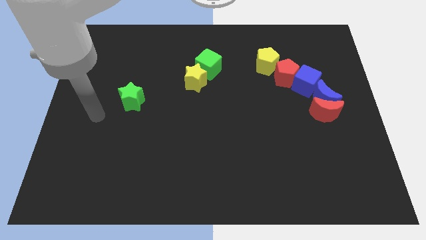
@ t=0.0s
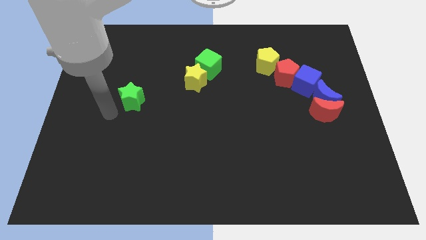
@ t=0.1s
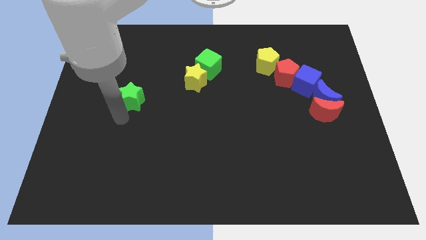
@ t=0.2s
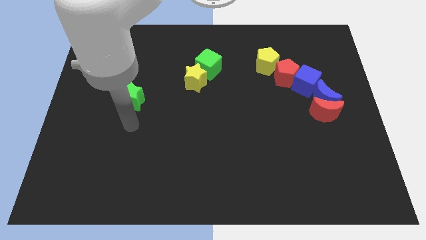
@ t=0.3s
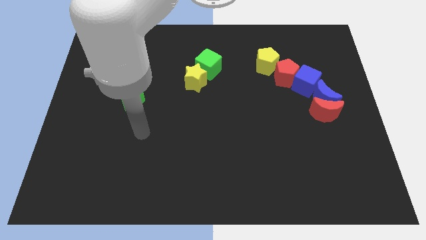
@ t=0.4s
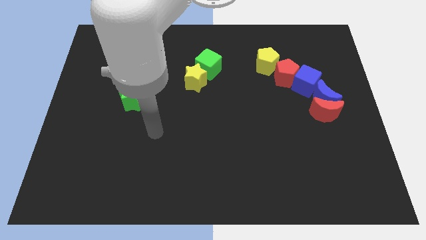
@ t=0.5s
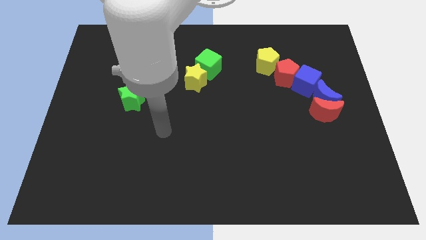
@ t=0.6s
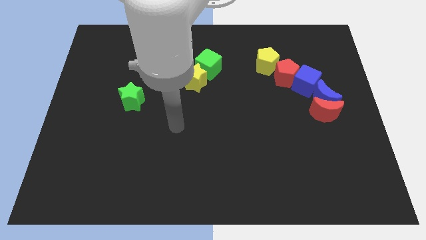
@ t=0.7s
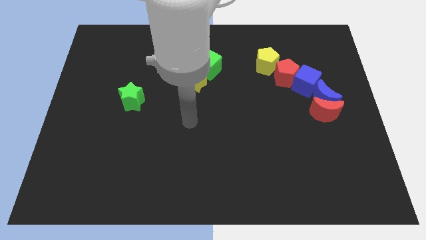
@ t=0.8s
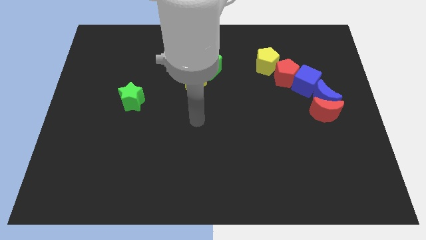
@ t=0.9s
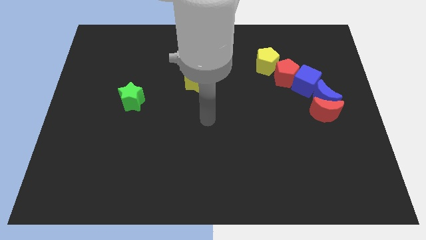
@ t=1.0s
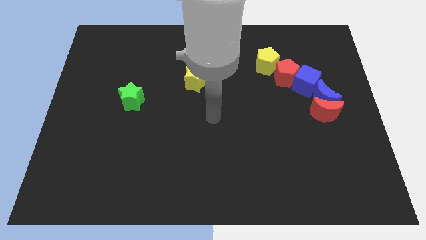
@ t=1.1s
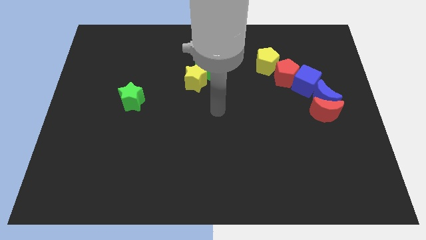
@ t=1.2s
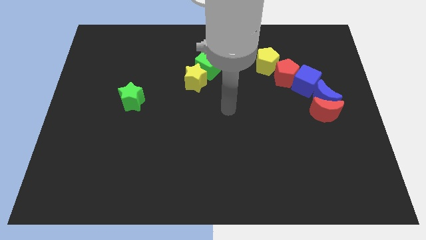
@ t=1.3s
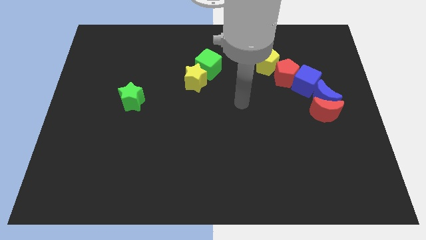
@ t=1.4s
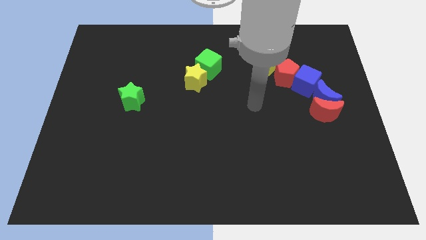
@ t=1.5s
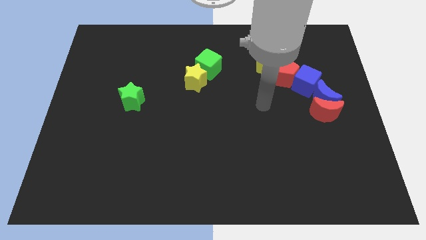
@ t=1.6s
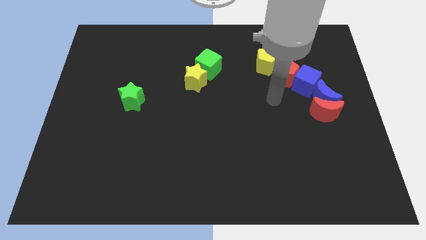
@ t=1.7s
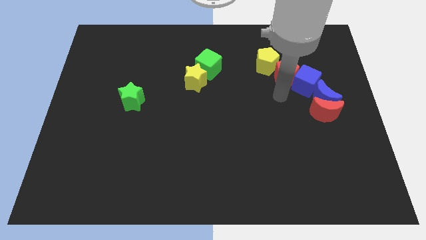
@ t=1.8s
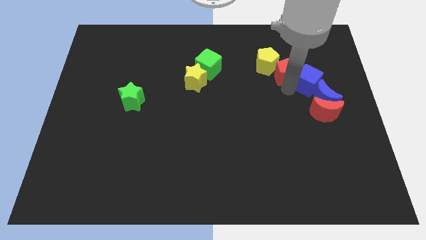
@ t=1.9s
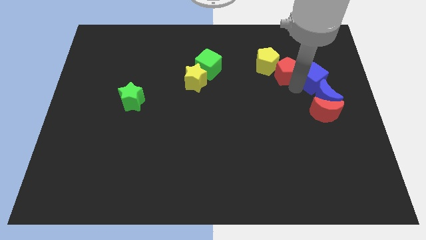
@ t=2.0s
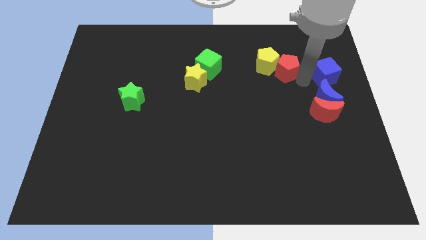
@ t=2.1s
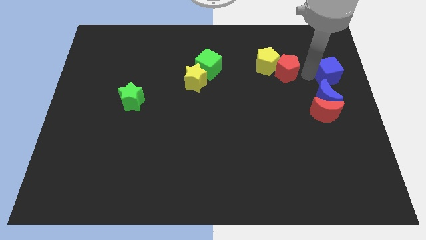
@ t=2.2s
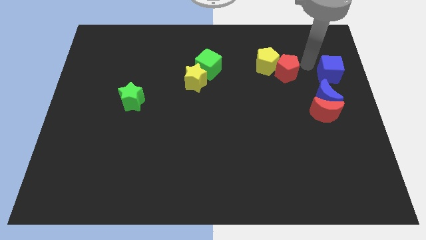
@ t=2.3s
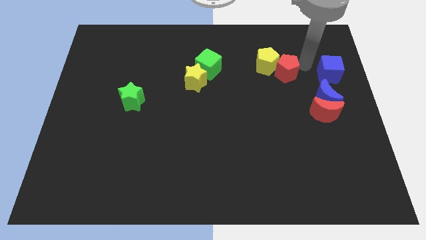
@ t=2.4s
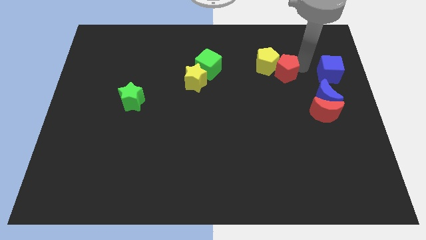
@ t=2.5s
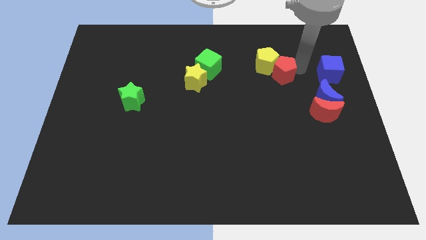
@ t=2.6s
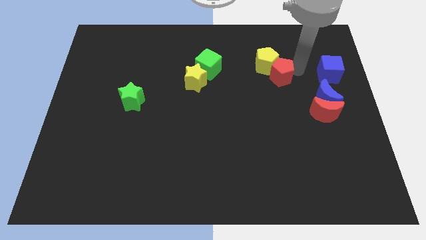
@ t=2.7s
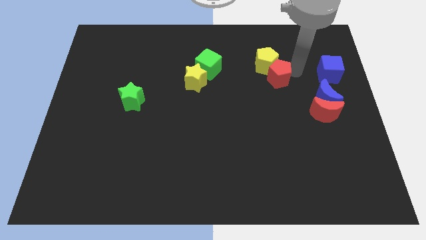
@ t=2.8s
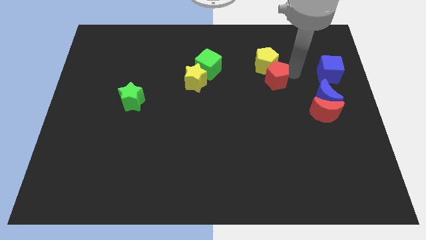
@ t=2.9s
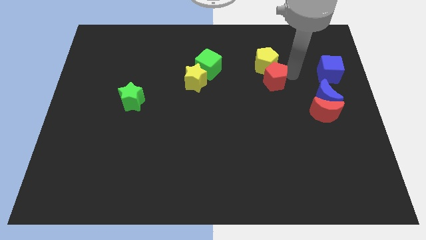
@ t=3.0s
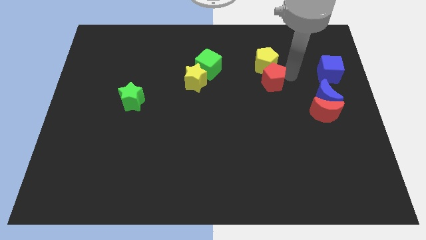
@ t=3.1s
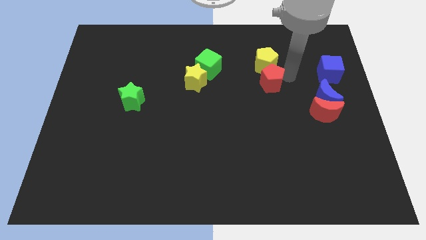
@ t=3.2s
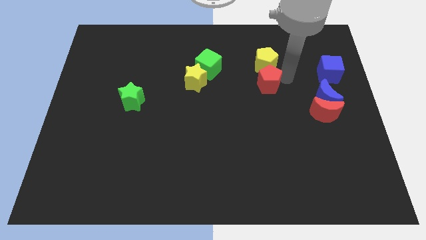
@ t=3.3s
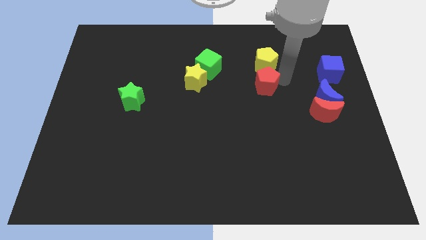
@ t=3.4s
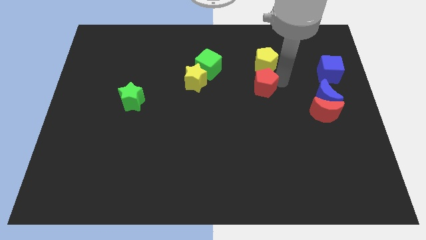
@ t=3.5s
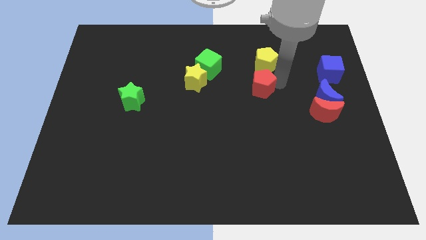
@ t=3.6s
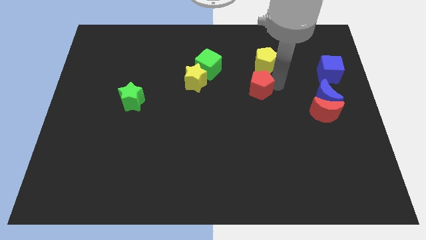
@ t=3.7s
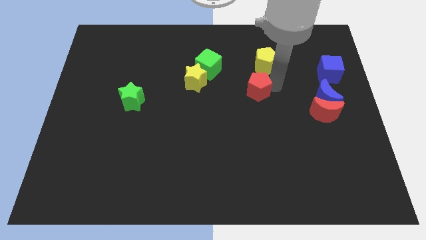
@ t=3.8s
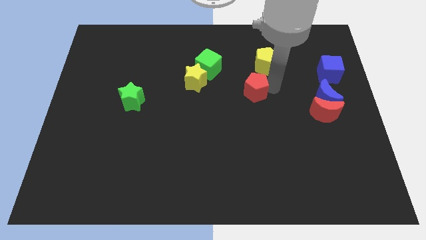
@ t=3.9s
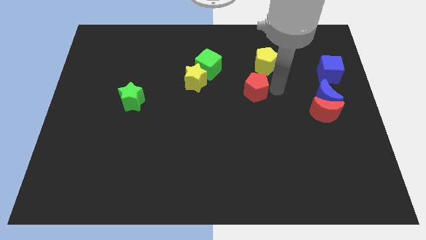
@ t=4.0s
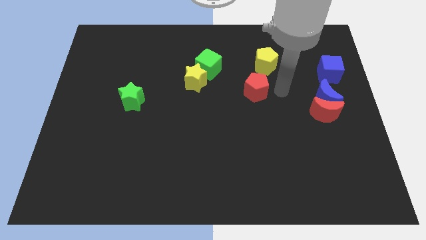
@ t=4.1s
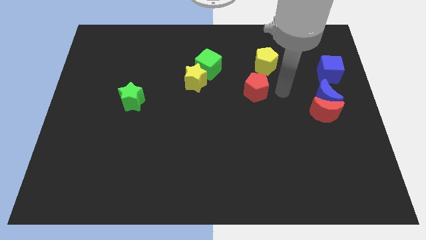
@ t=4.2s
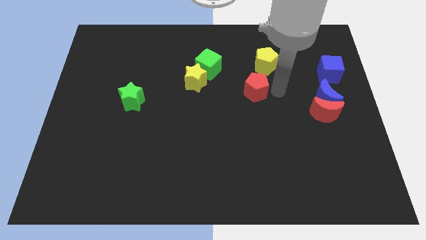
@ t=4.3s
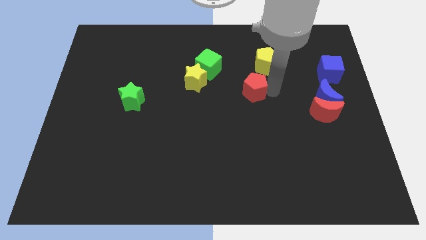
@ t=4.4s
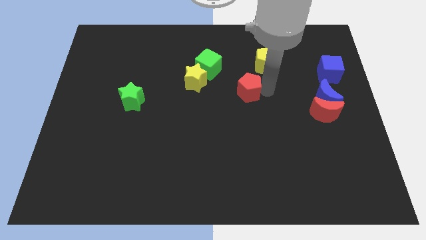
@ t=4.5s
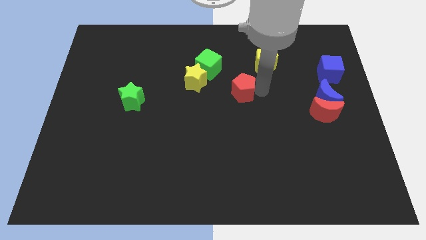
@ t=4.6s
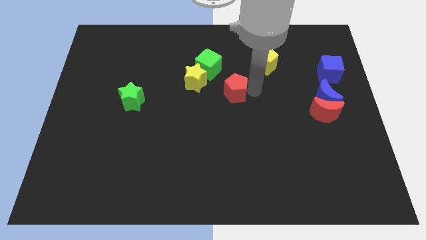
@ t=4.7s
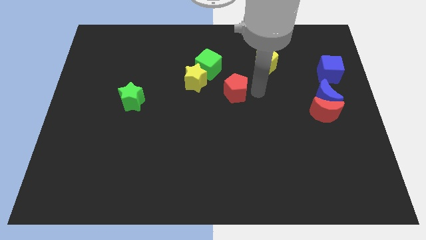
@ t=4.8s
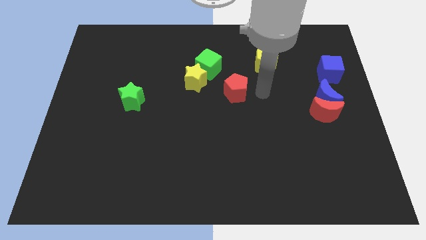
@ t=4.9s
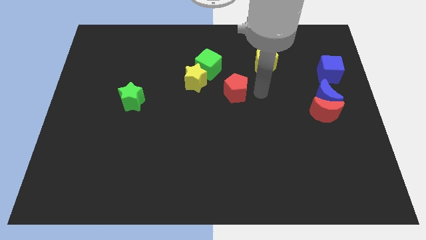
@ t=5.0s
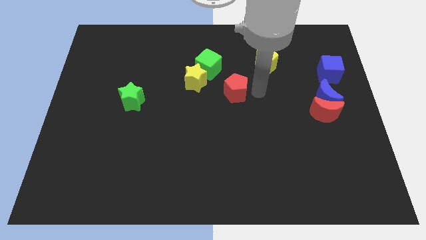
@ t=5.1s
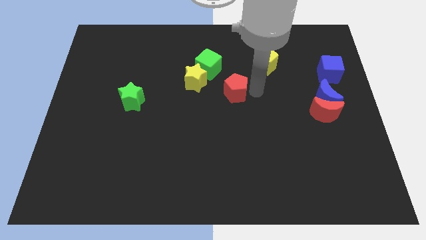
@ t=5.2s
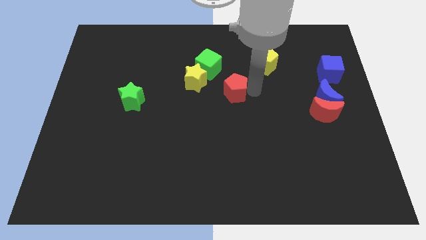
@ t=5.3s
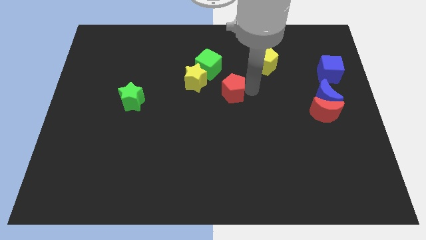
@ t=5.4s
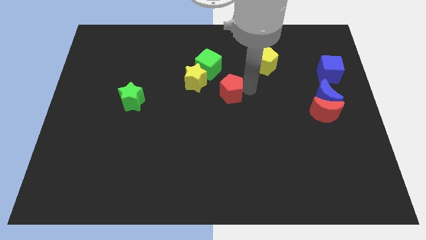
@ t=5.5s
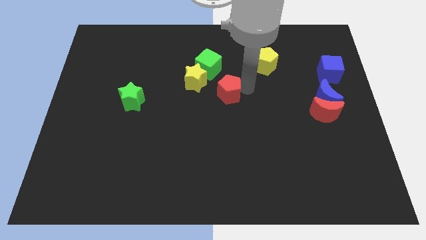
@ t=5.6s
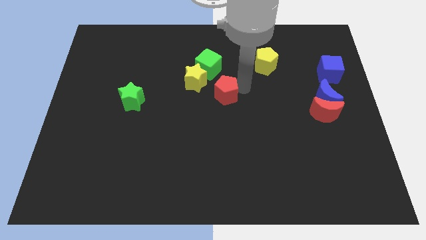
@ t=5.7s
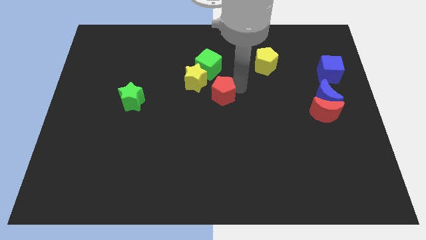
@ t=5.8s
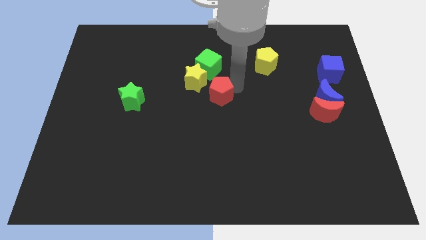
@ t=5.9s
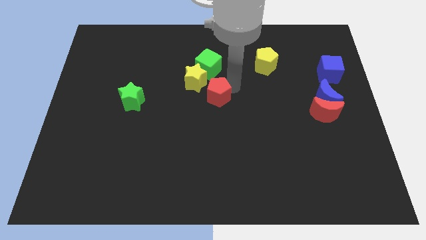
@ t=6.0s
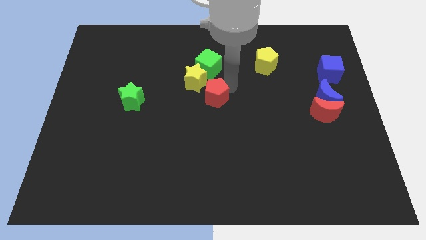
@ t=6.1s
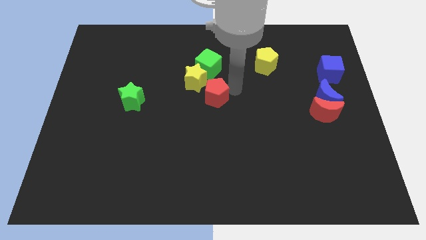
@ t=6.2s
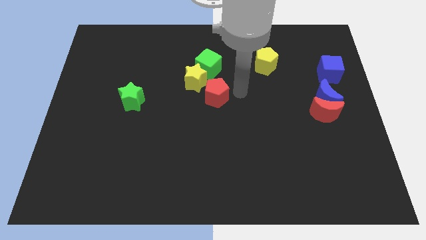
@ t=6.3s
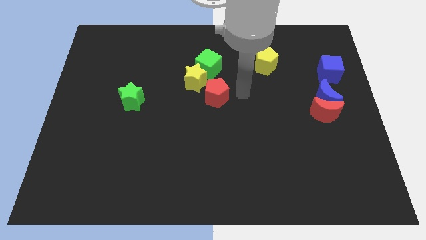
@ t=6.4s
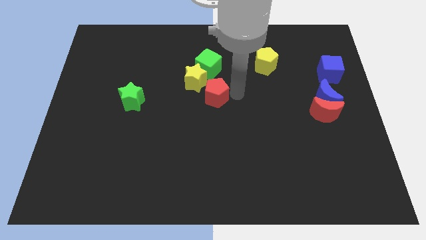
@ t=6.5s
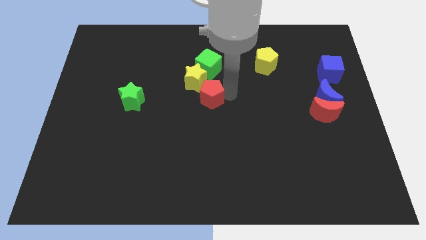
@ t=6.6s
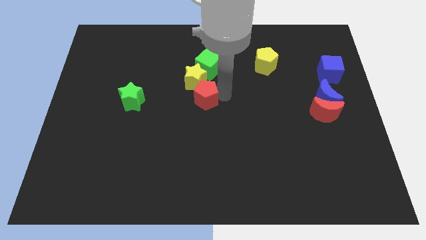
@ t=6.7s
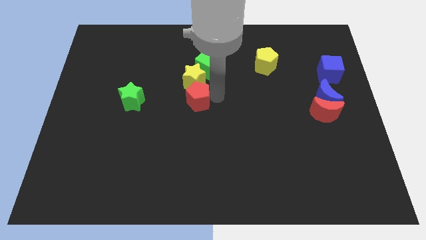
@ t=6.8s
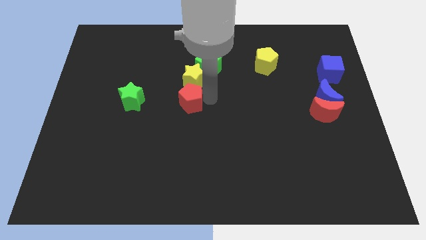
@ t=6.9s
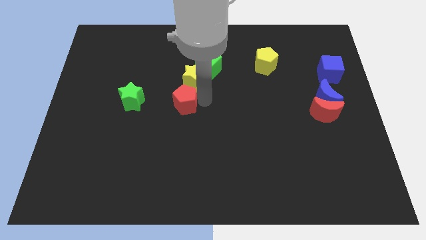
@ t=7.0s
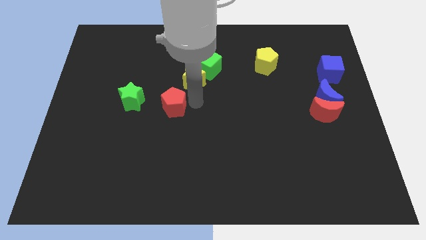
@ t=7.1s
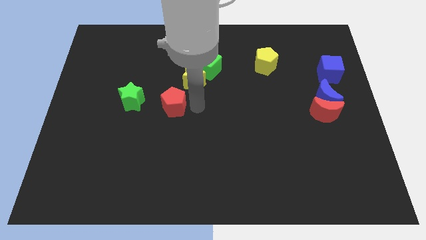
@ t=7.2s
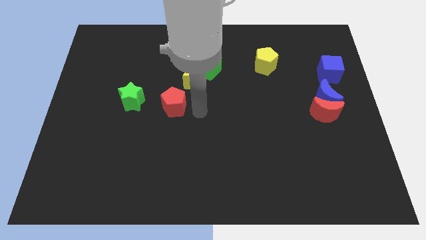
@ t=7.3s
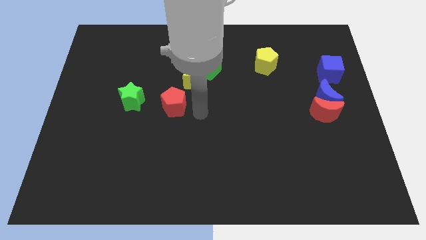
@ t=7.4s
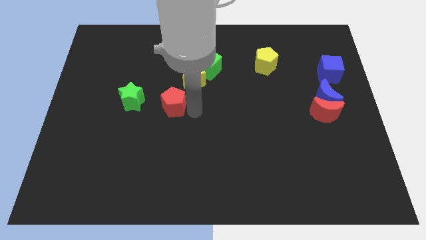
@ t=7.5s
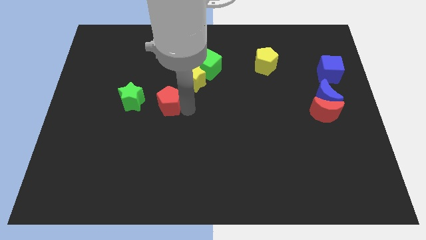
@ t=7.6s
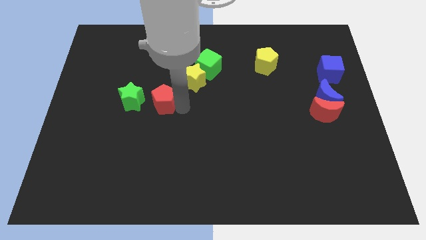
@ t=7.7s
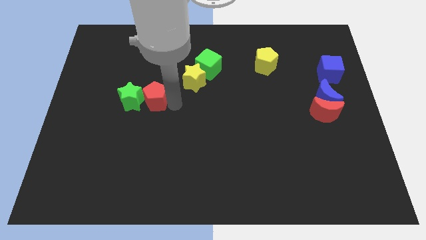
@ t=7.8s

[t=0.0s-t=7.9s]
move the red pentagon to the green star

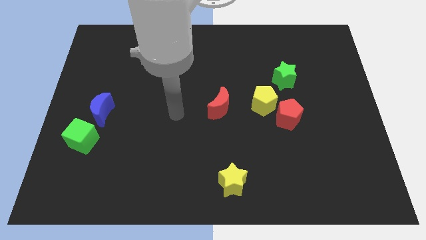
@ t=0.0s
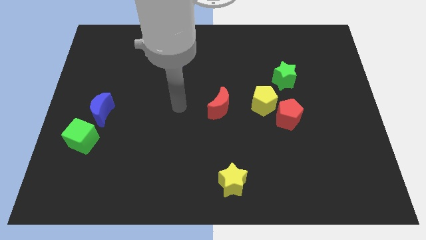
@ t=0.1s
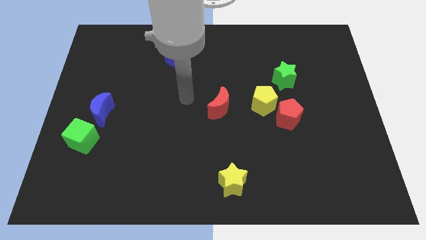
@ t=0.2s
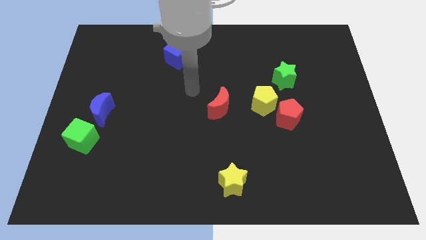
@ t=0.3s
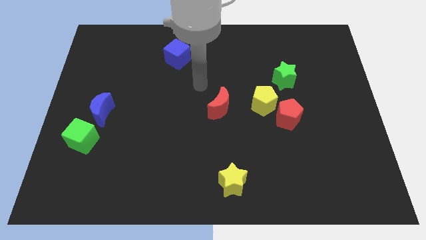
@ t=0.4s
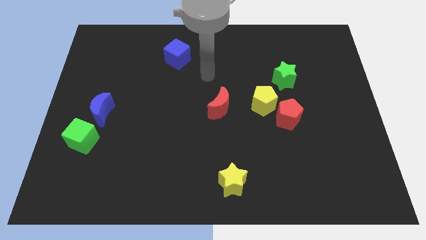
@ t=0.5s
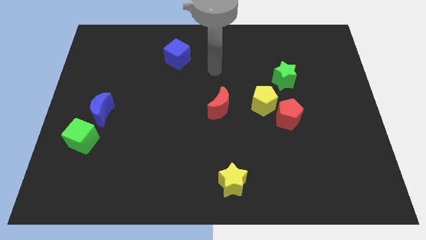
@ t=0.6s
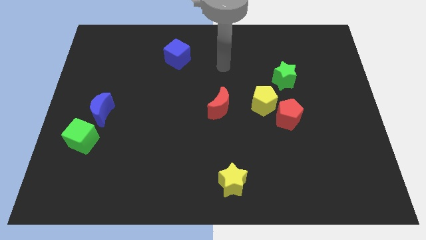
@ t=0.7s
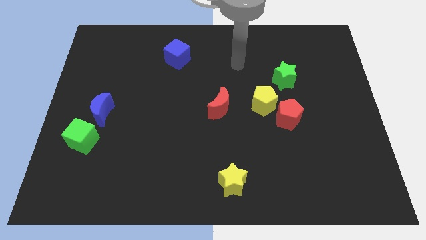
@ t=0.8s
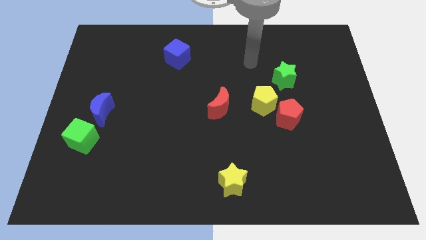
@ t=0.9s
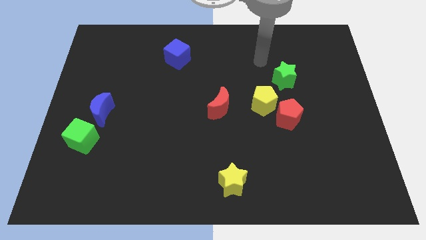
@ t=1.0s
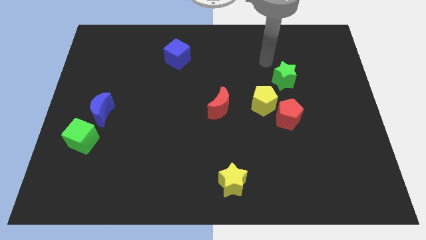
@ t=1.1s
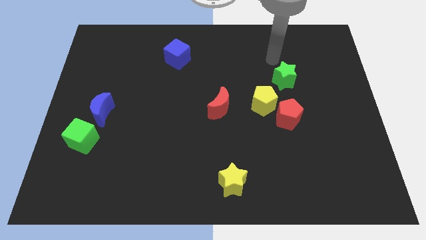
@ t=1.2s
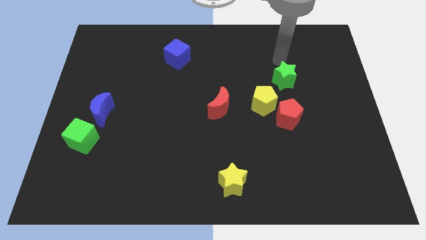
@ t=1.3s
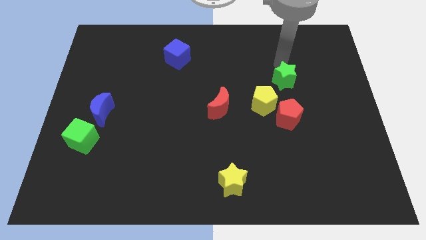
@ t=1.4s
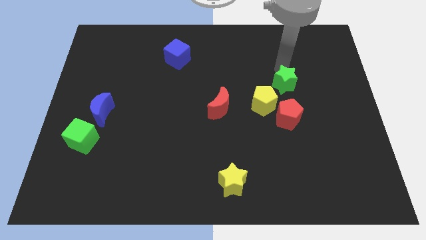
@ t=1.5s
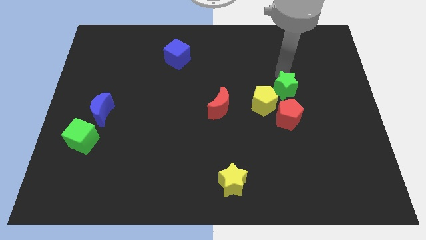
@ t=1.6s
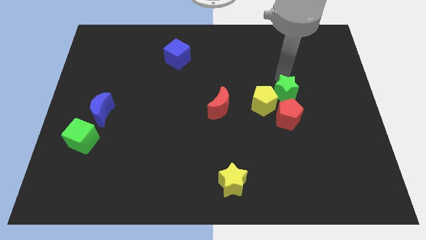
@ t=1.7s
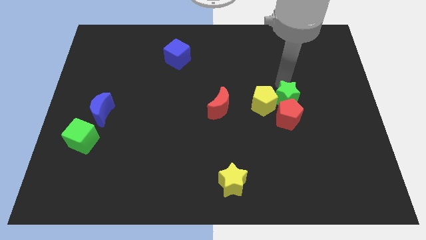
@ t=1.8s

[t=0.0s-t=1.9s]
put the green star close to the red pentagon
